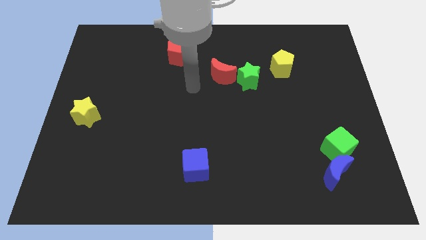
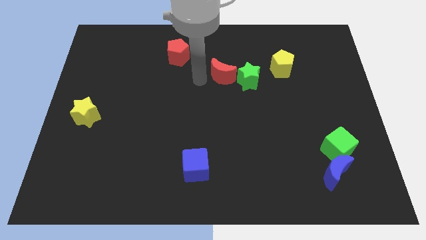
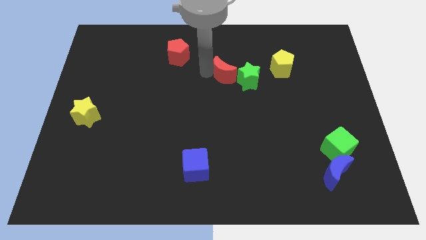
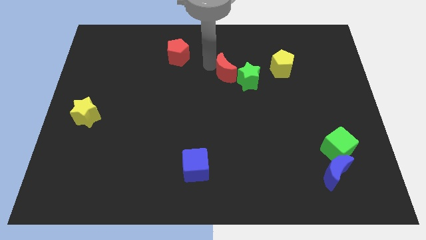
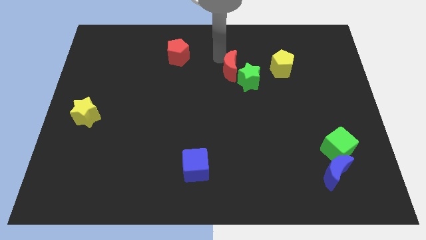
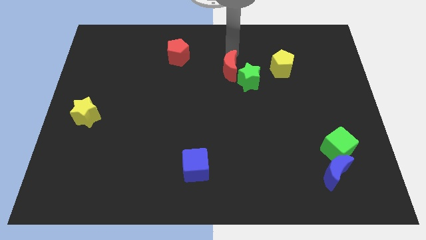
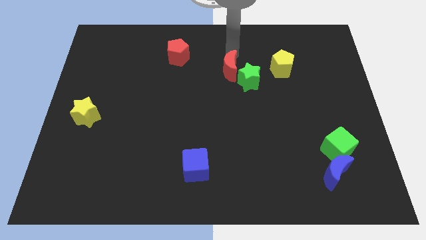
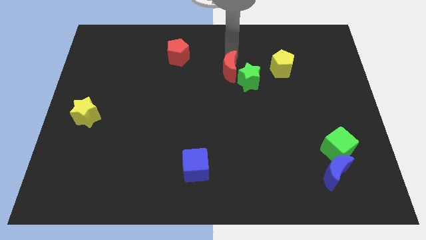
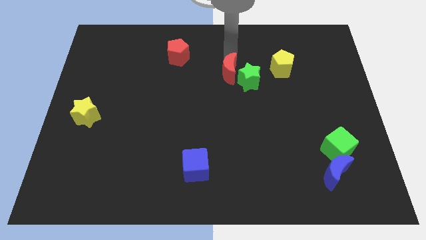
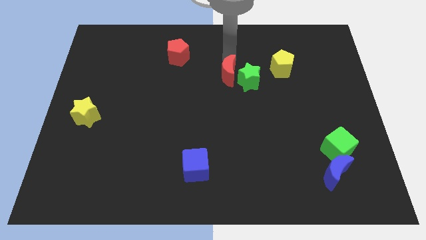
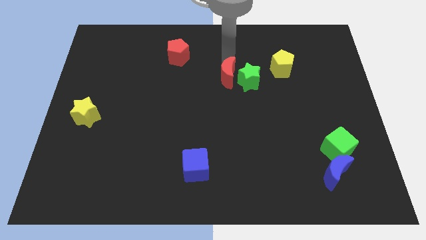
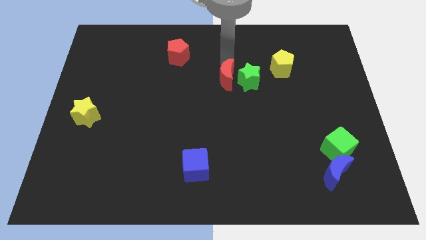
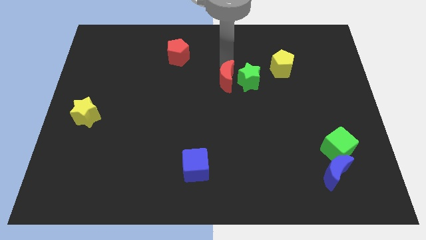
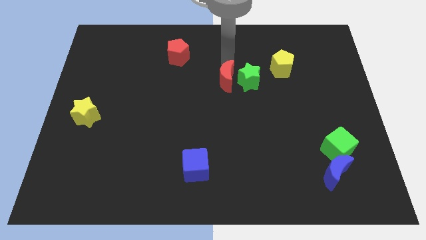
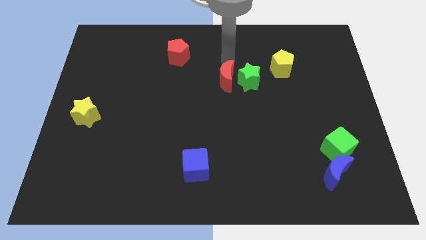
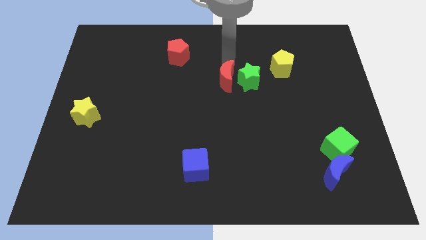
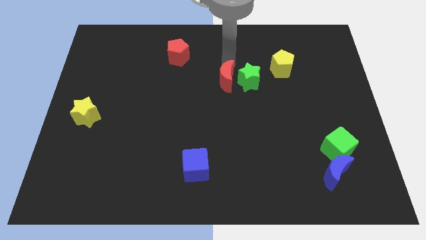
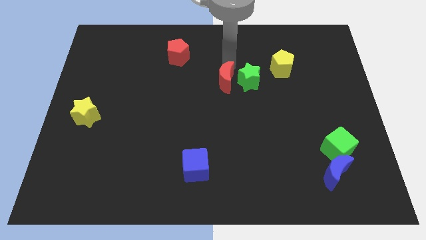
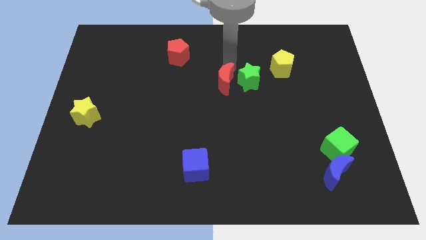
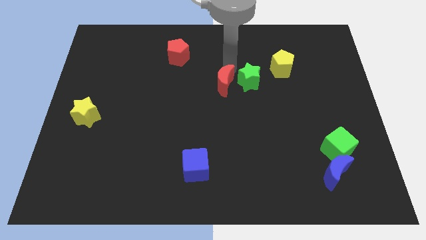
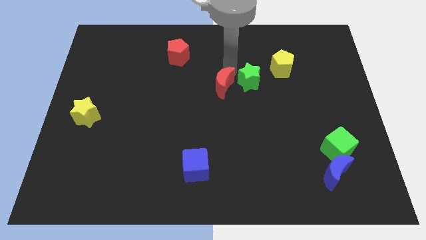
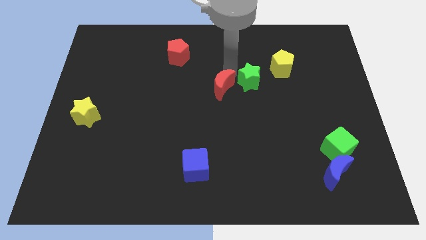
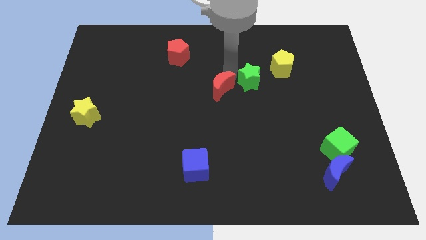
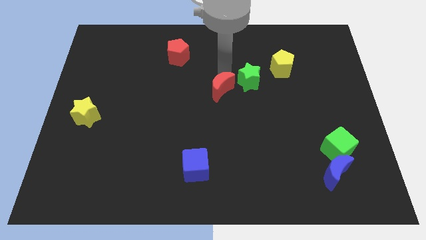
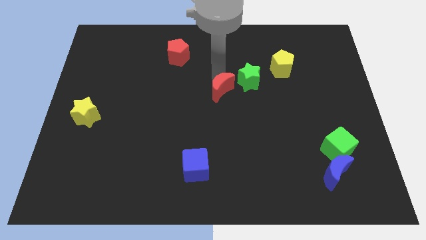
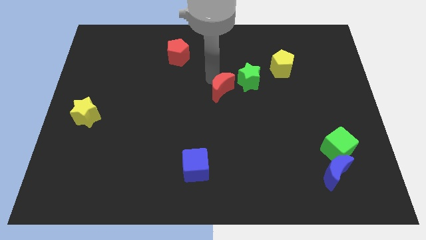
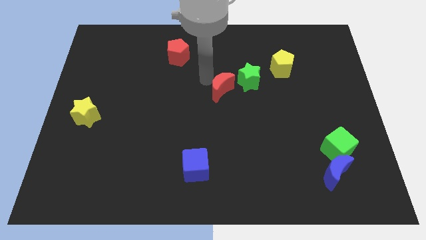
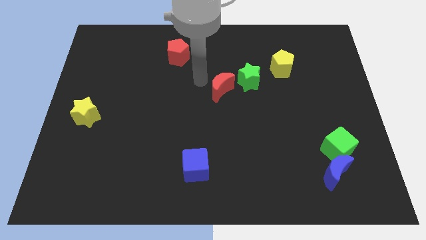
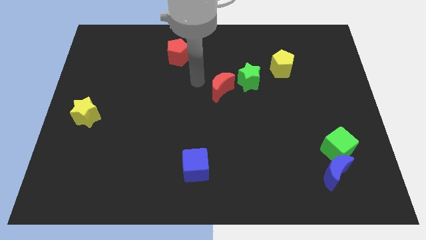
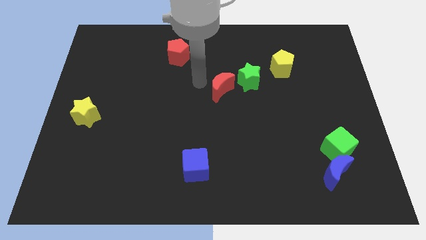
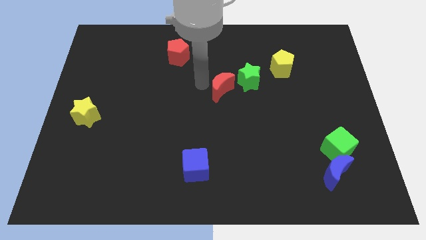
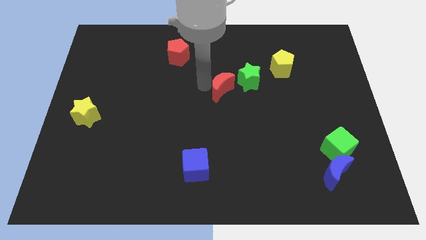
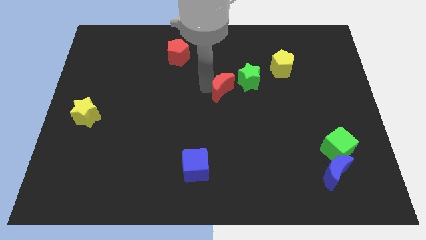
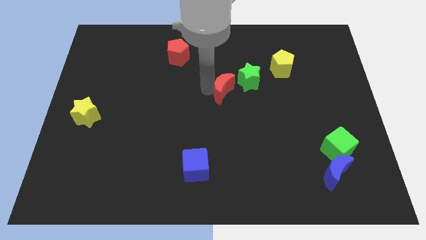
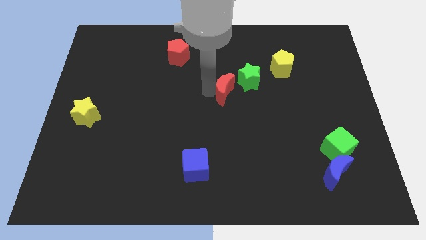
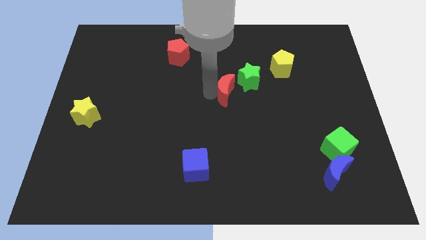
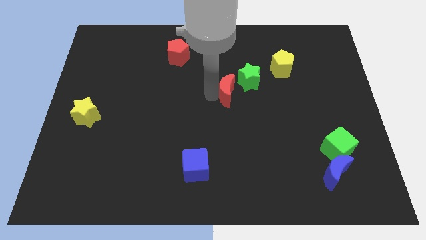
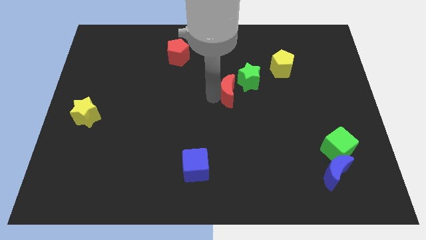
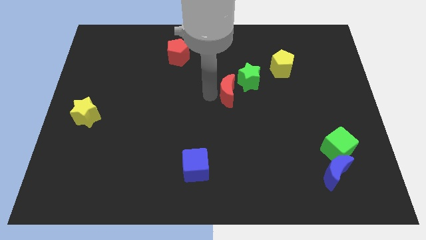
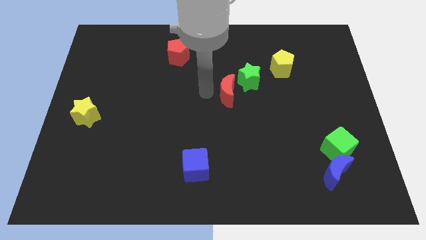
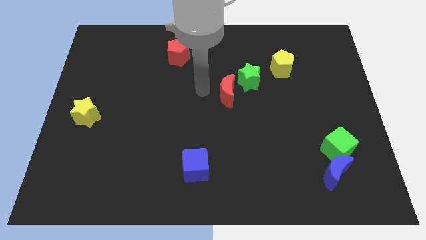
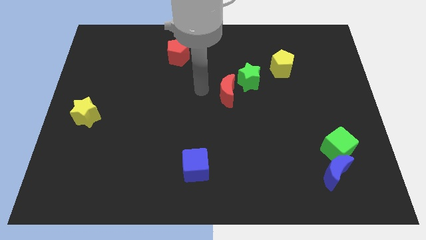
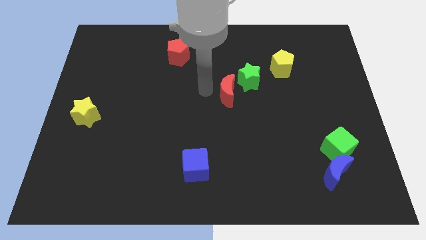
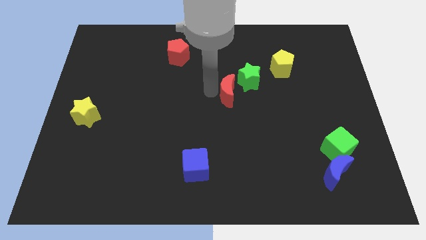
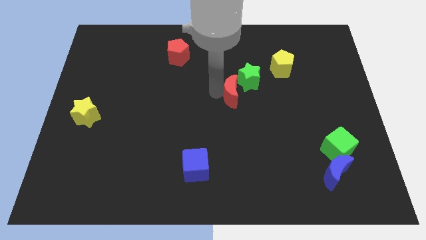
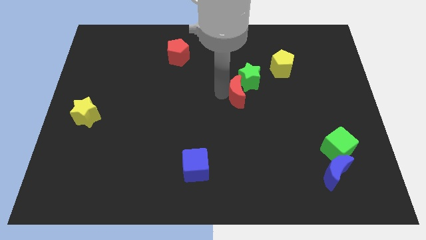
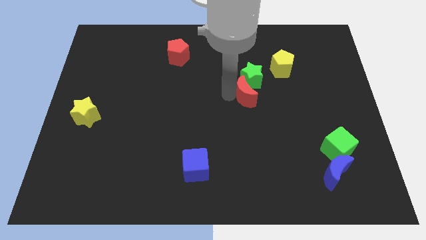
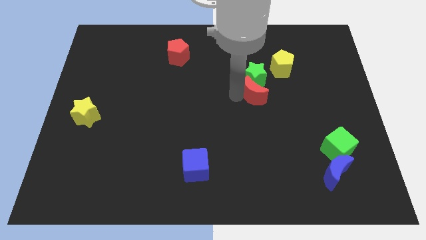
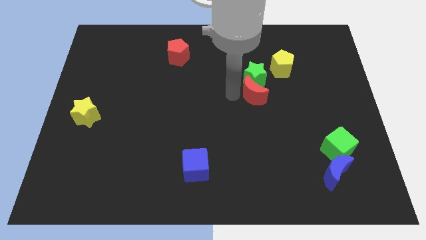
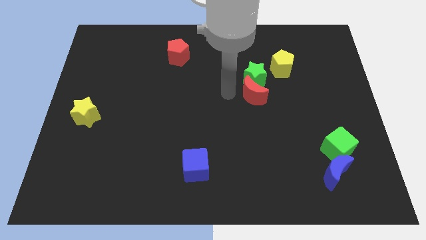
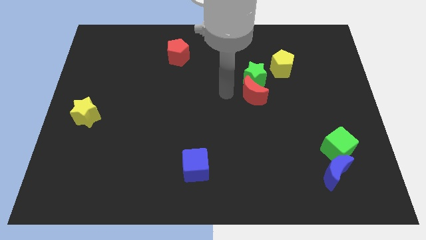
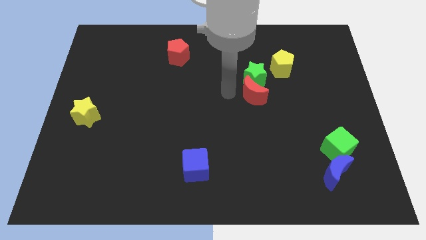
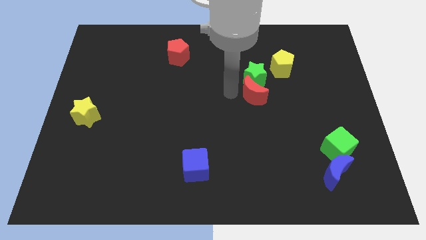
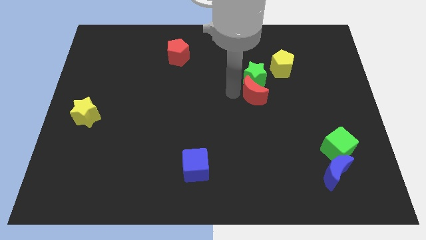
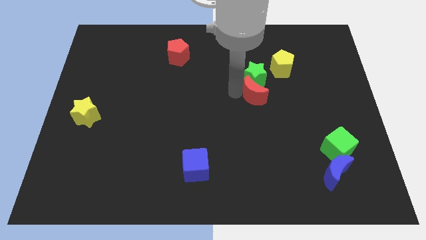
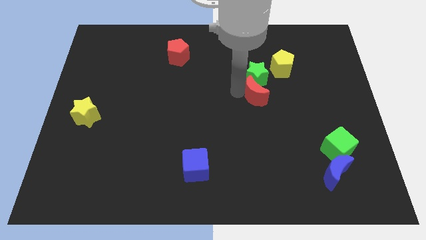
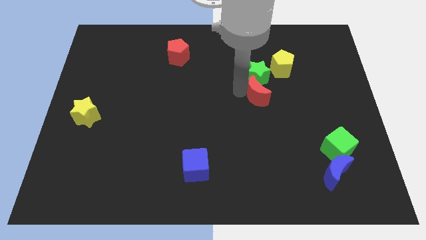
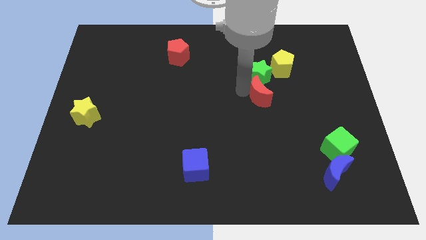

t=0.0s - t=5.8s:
slide the red moon a bit to the right

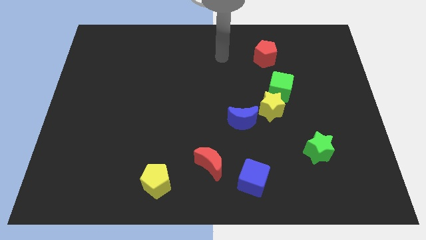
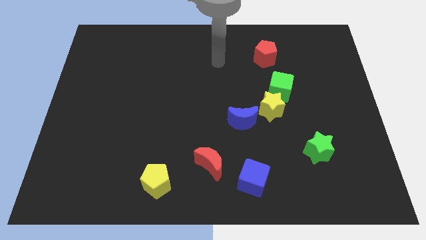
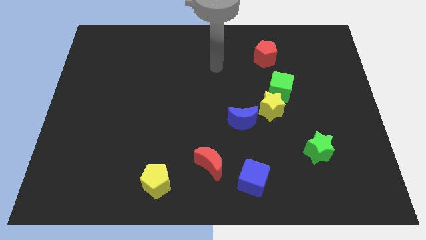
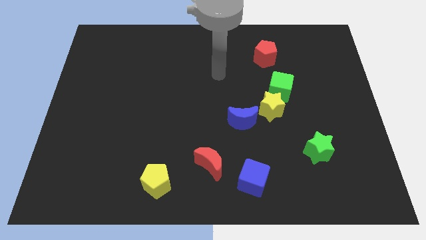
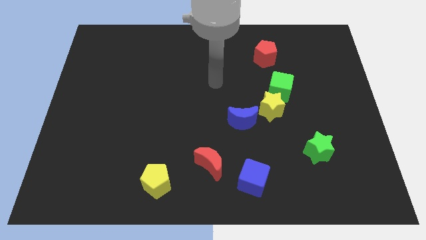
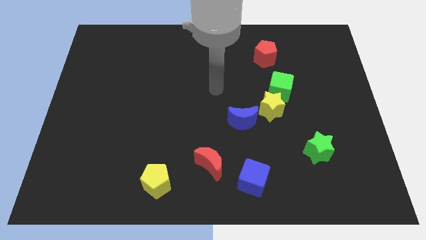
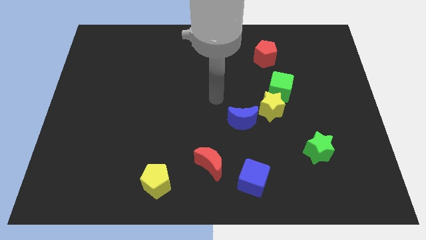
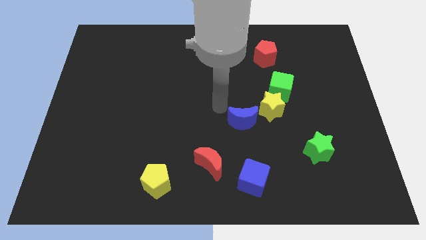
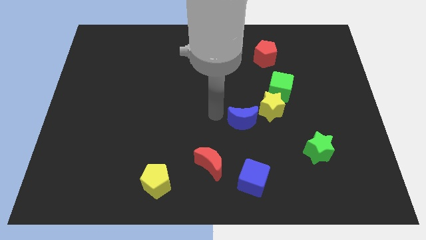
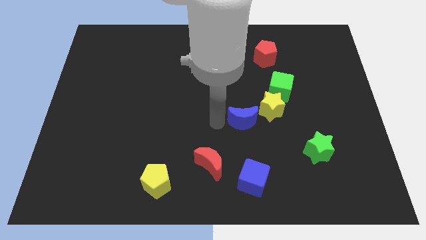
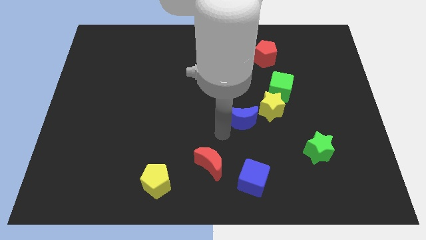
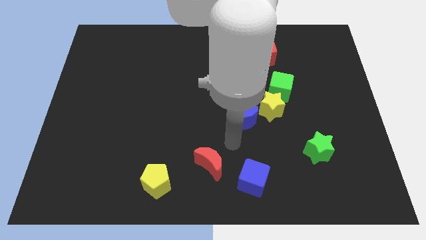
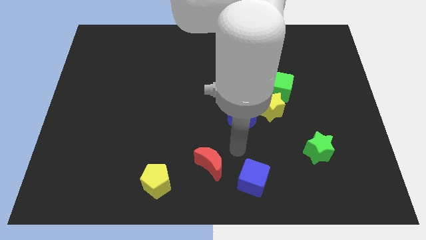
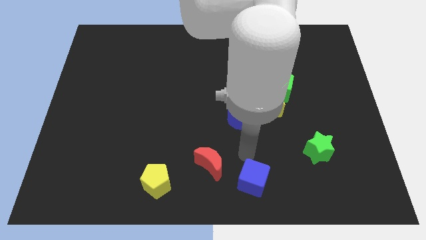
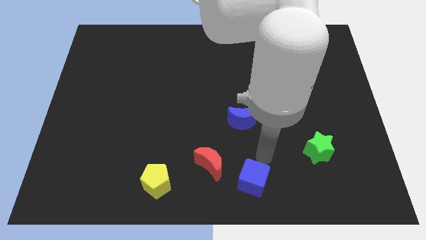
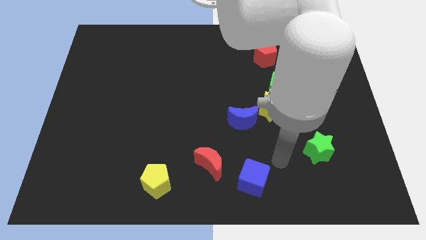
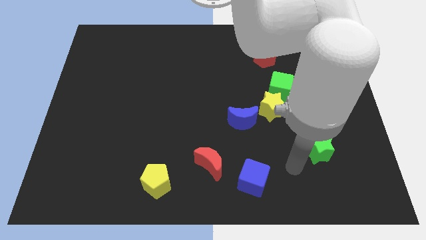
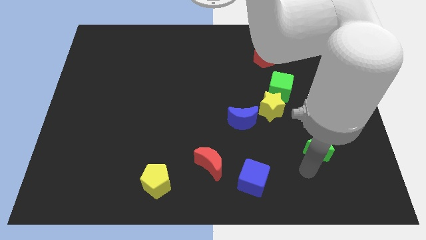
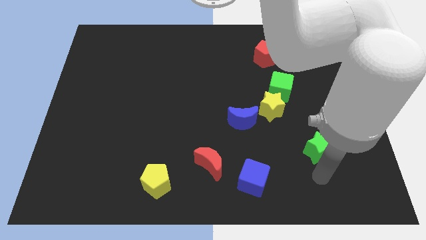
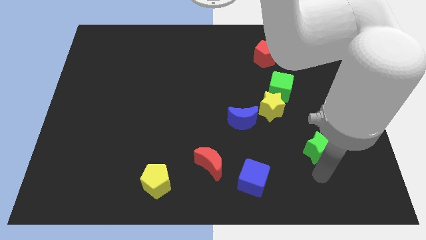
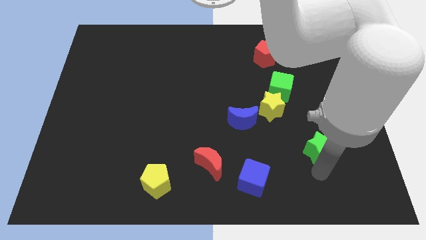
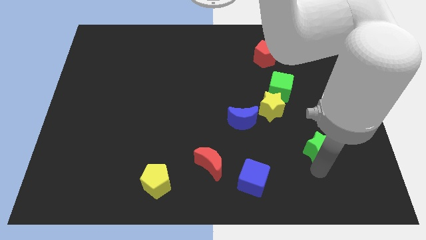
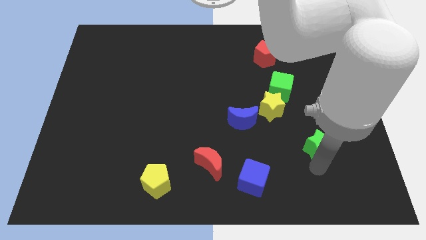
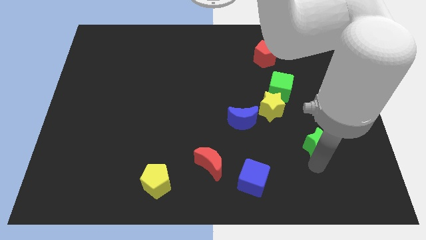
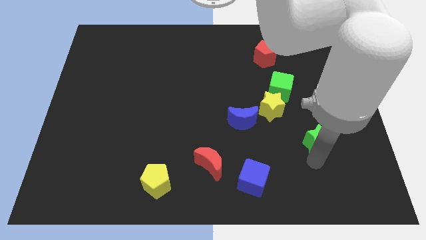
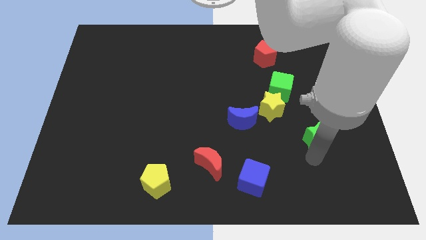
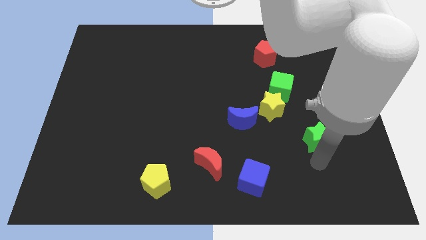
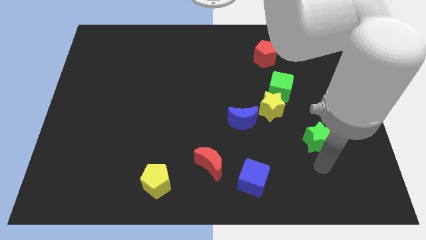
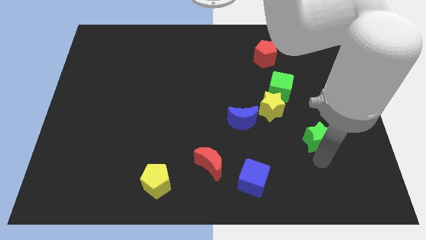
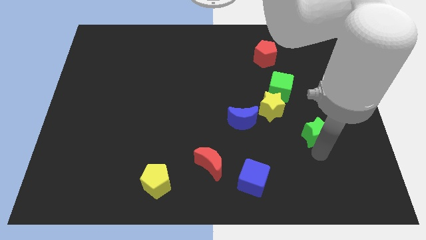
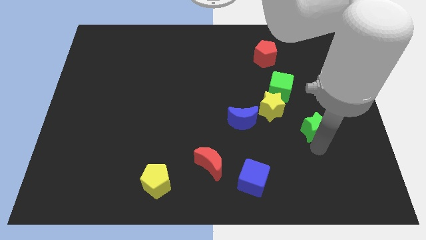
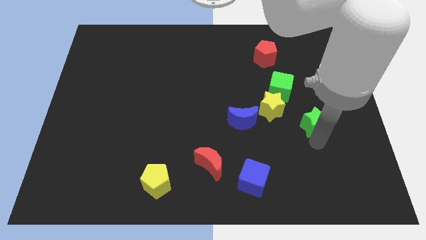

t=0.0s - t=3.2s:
slightly move the green star up
